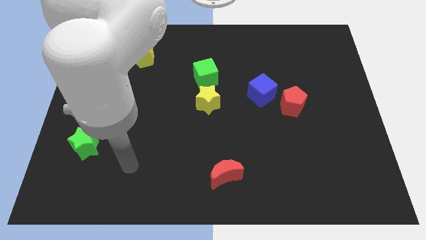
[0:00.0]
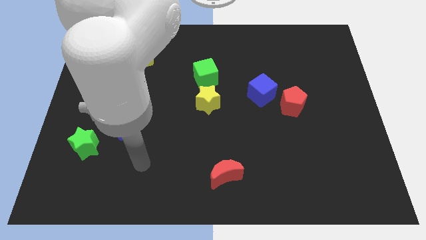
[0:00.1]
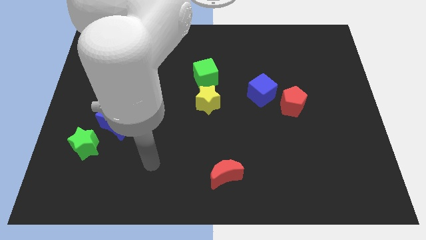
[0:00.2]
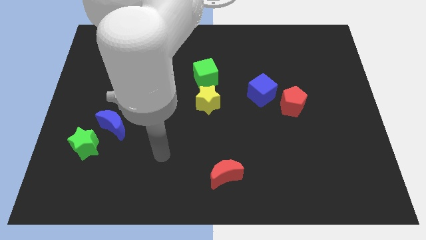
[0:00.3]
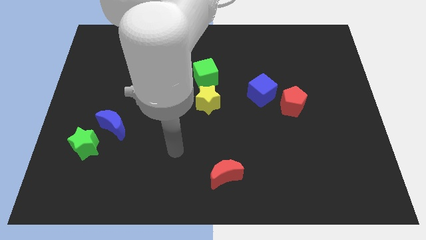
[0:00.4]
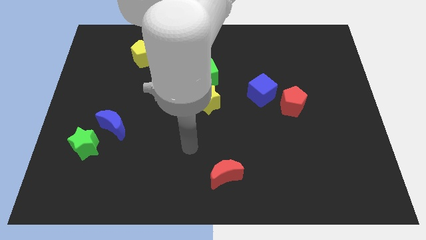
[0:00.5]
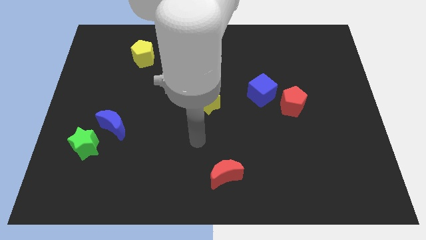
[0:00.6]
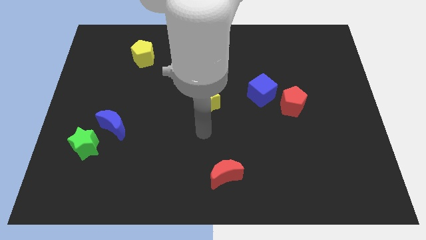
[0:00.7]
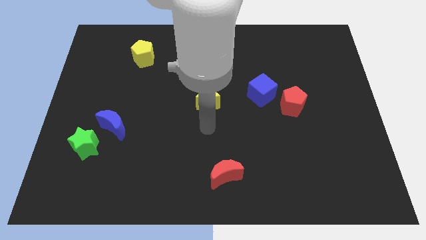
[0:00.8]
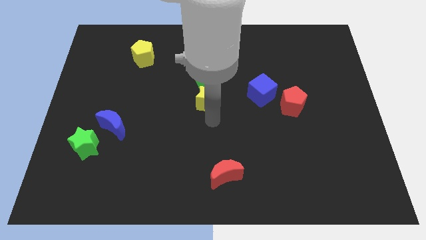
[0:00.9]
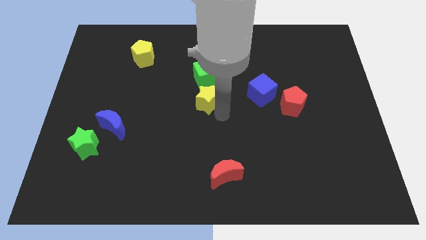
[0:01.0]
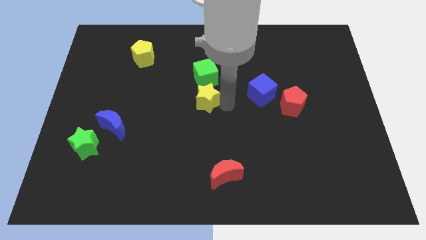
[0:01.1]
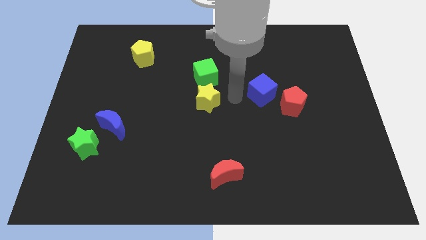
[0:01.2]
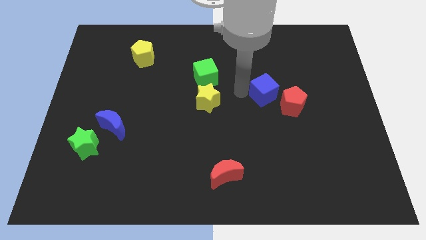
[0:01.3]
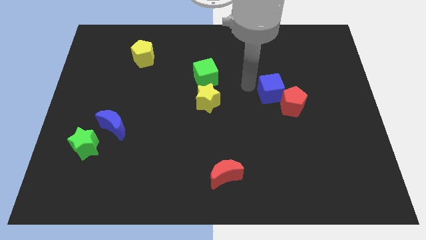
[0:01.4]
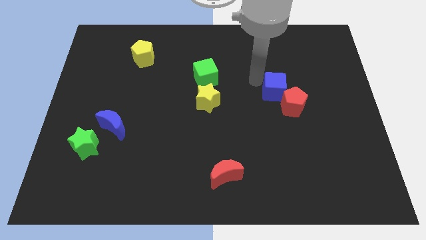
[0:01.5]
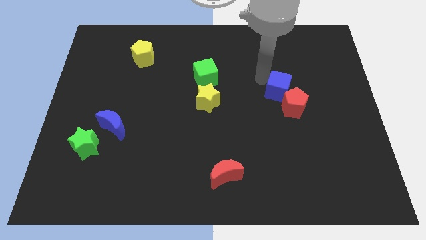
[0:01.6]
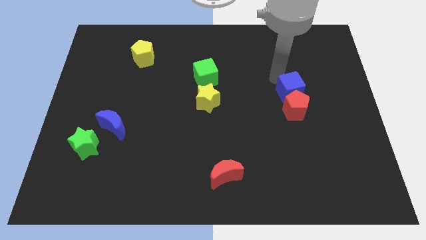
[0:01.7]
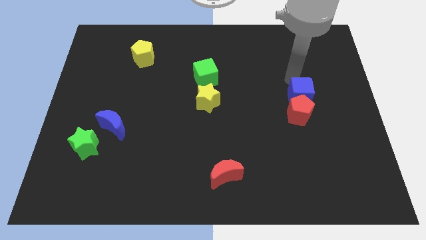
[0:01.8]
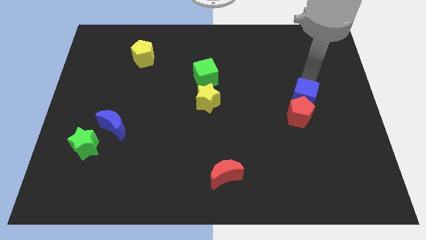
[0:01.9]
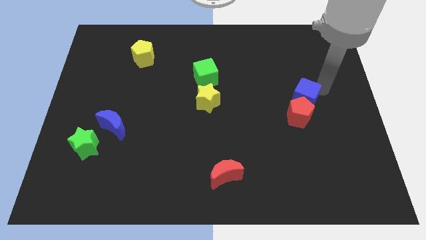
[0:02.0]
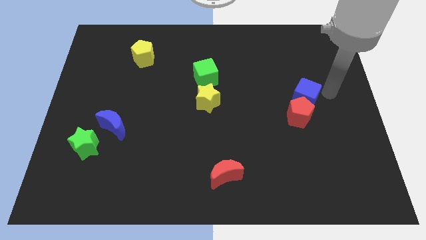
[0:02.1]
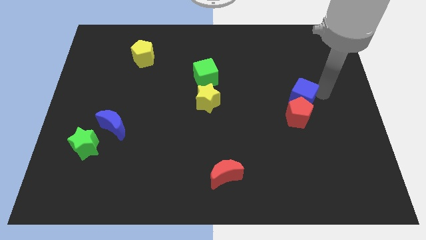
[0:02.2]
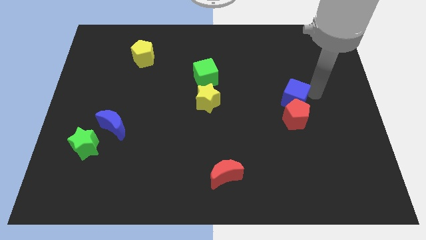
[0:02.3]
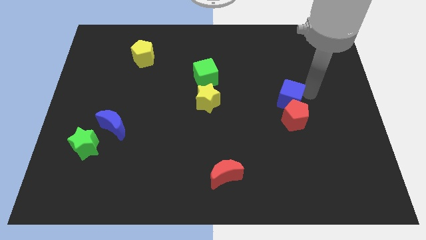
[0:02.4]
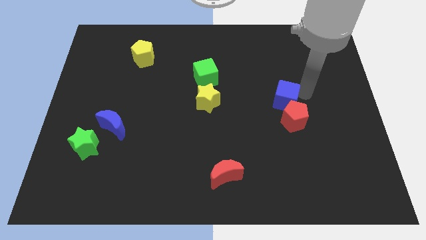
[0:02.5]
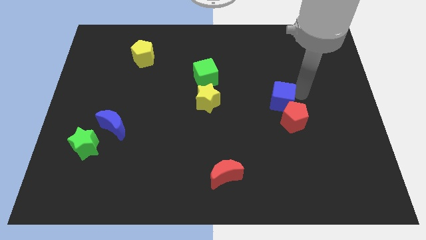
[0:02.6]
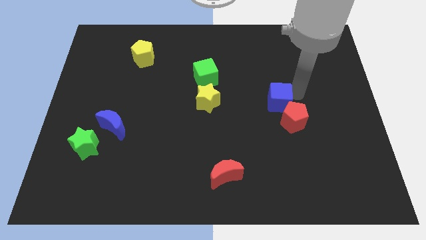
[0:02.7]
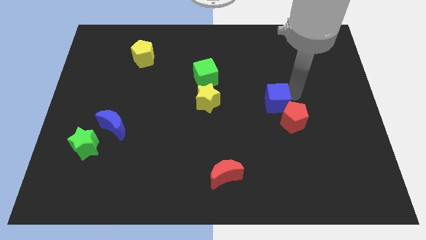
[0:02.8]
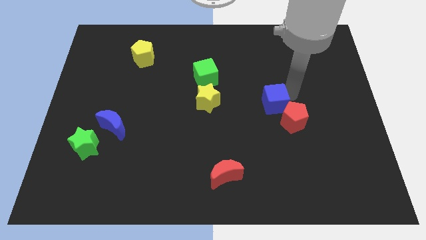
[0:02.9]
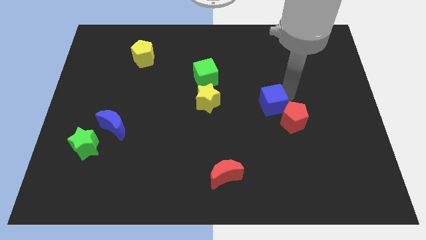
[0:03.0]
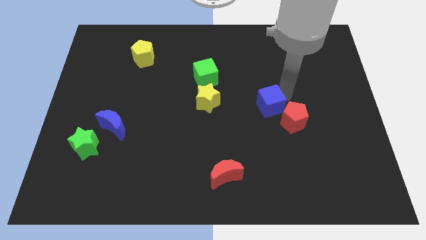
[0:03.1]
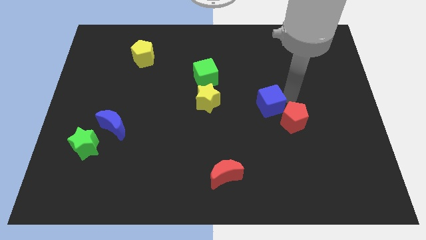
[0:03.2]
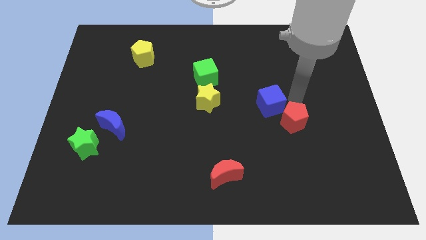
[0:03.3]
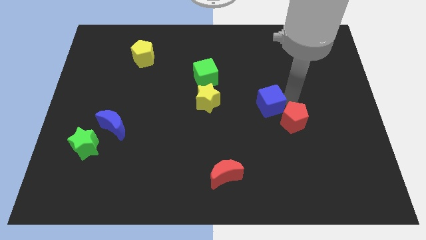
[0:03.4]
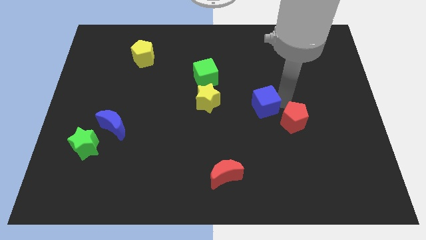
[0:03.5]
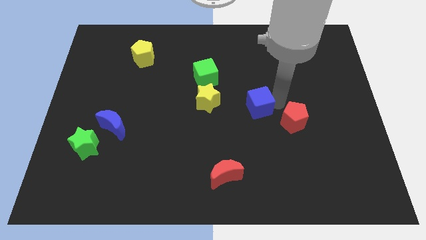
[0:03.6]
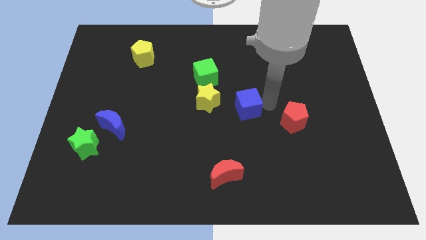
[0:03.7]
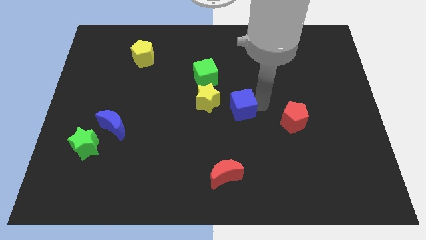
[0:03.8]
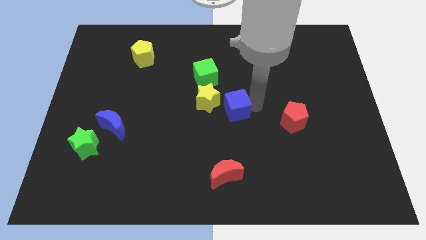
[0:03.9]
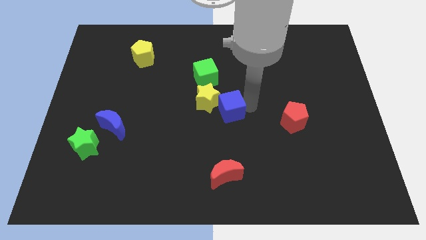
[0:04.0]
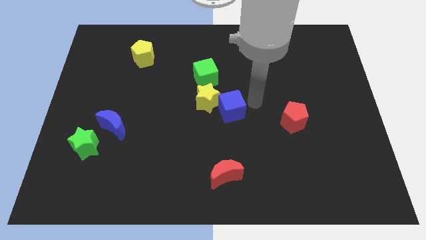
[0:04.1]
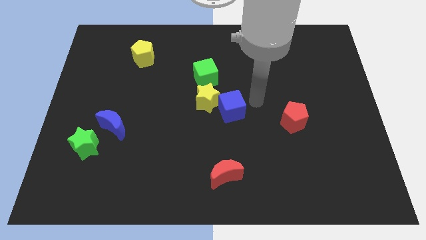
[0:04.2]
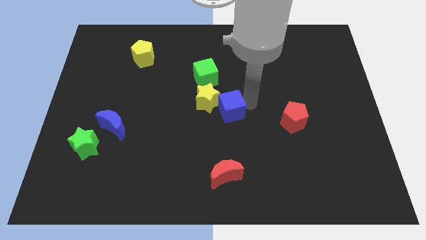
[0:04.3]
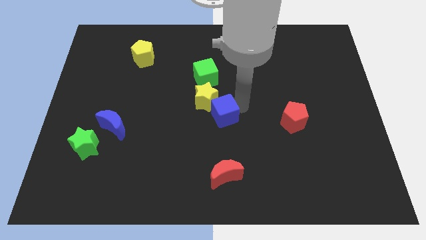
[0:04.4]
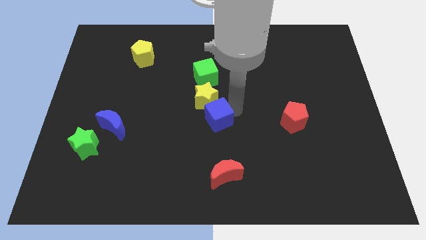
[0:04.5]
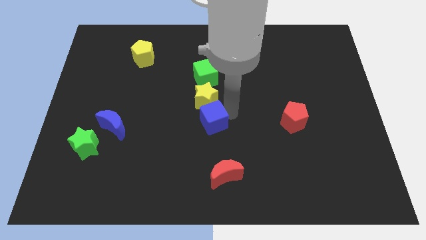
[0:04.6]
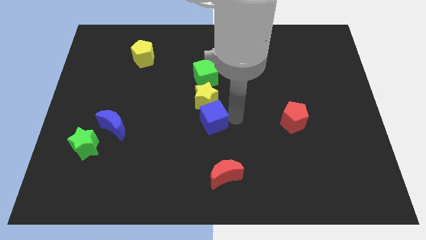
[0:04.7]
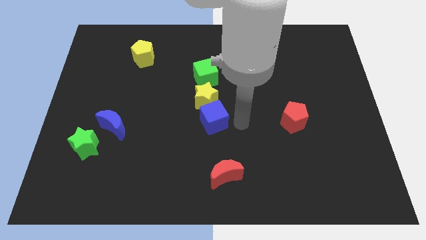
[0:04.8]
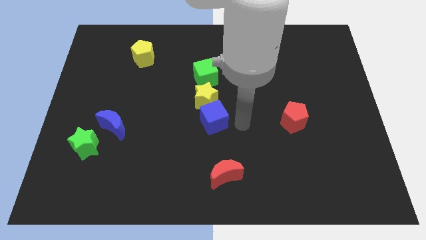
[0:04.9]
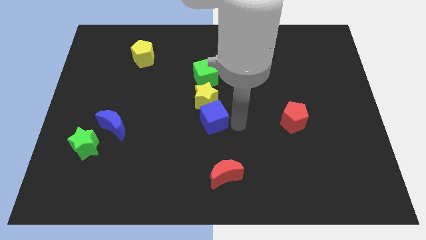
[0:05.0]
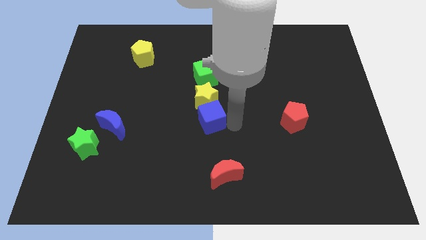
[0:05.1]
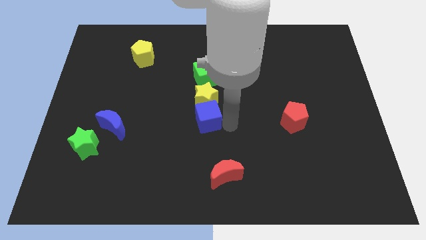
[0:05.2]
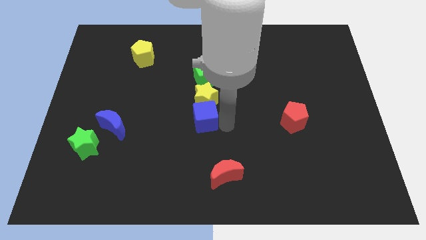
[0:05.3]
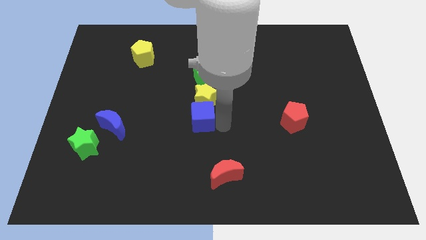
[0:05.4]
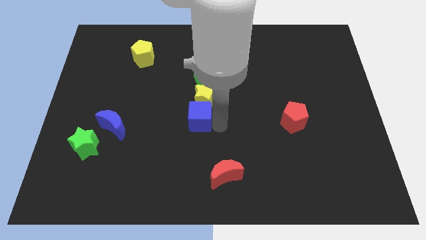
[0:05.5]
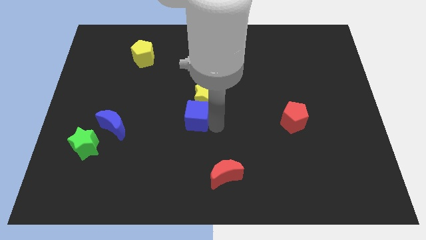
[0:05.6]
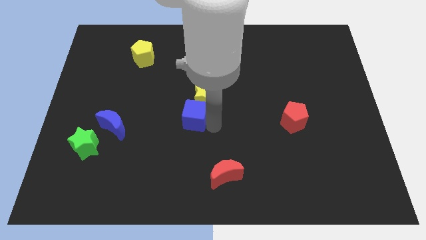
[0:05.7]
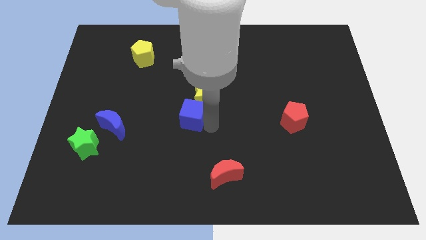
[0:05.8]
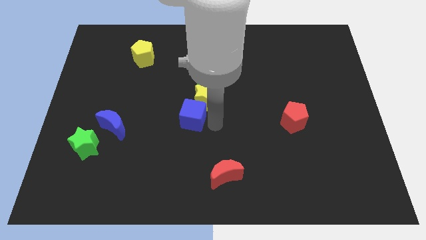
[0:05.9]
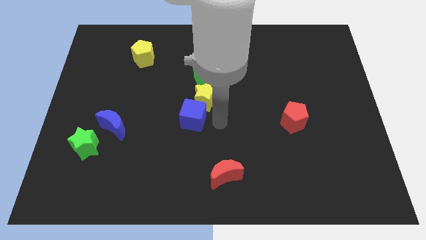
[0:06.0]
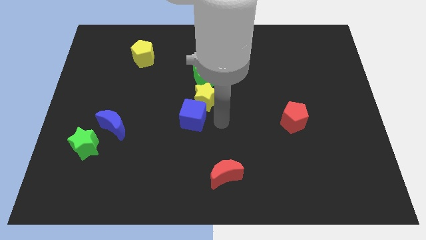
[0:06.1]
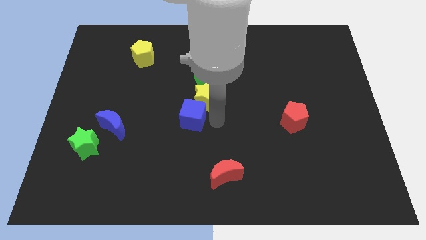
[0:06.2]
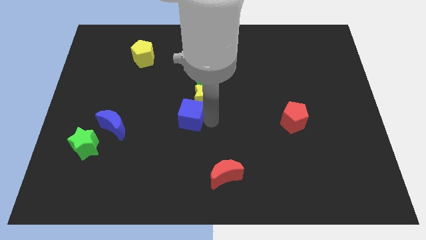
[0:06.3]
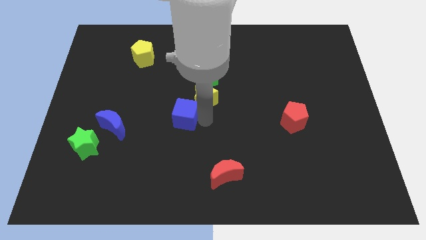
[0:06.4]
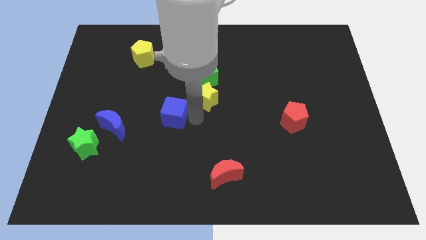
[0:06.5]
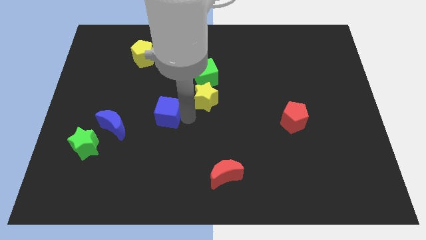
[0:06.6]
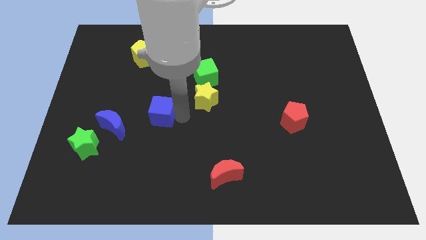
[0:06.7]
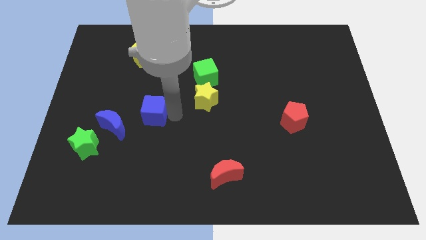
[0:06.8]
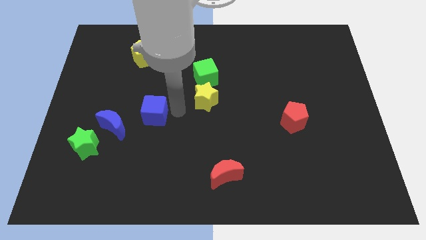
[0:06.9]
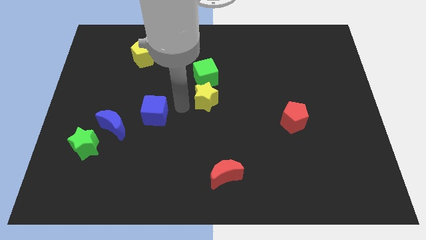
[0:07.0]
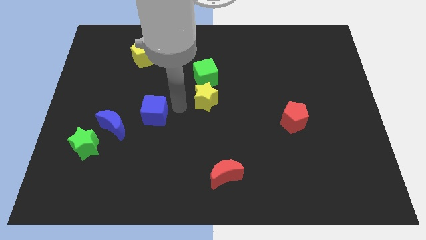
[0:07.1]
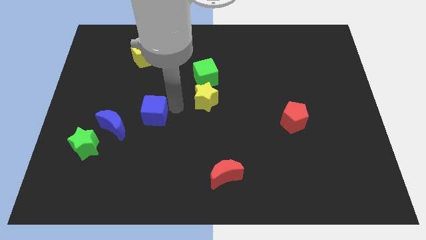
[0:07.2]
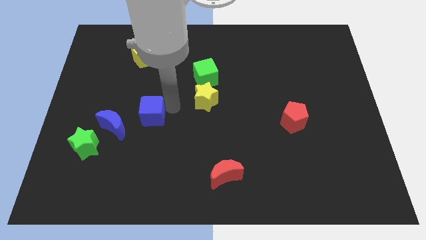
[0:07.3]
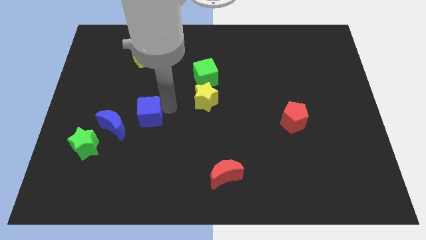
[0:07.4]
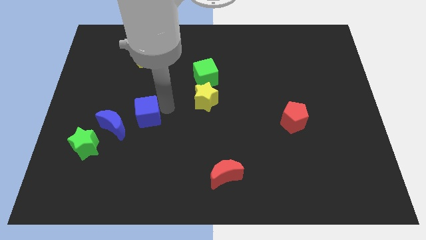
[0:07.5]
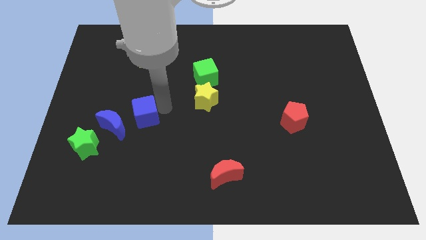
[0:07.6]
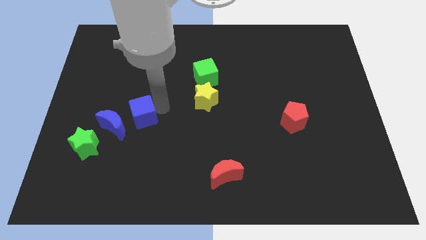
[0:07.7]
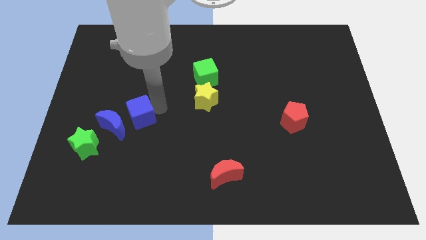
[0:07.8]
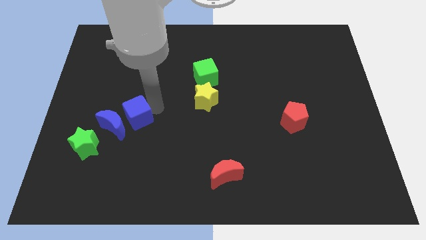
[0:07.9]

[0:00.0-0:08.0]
push the blue cube next to the blue moon
